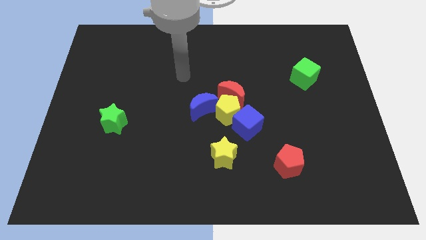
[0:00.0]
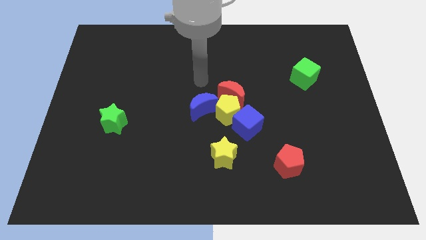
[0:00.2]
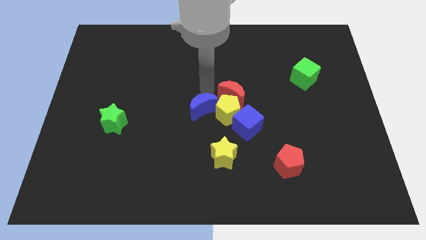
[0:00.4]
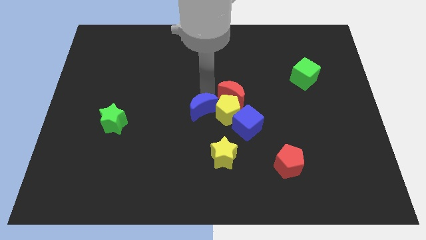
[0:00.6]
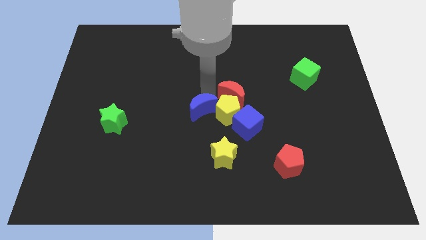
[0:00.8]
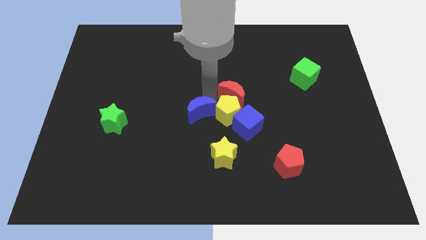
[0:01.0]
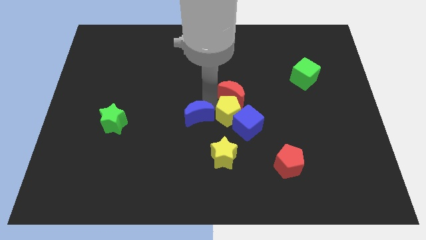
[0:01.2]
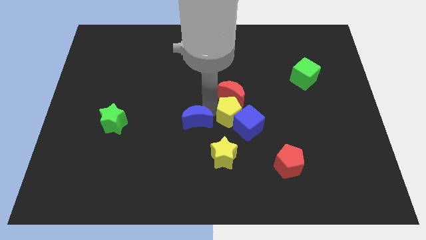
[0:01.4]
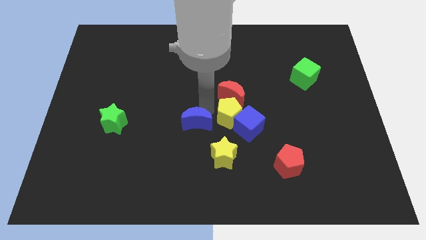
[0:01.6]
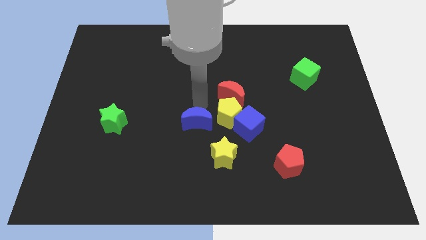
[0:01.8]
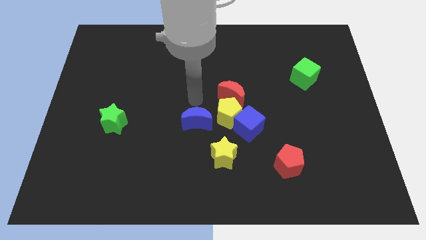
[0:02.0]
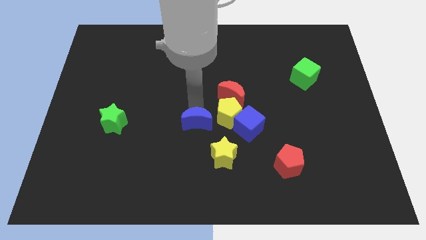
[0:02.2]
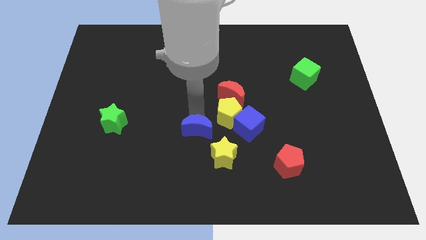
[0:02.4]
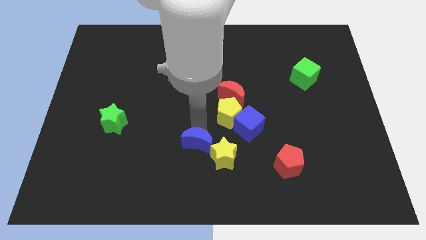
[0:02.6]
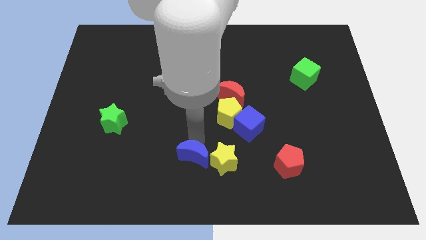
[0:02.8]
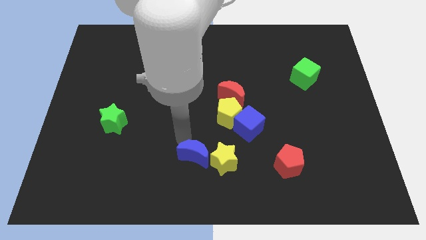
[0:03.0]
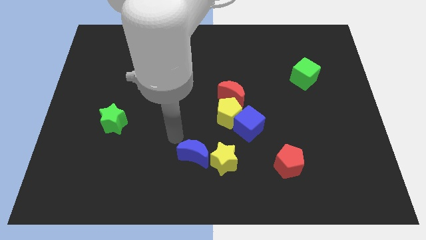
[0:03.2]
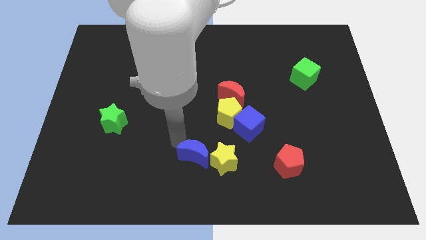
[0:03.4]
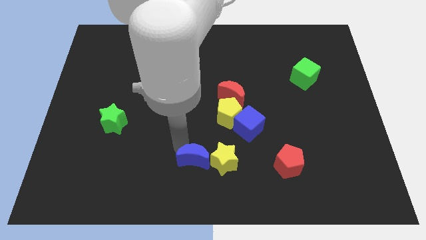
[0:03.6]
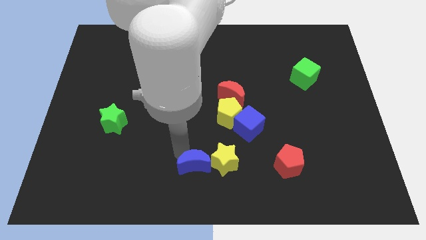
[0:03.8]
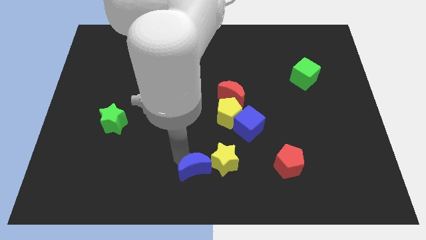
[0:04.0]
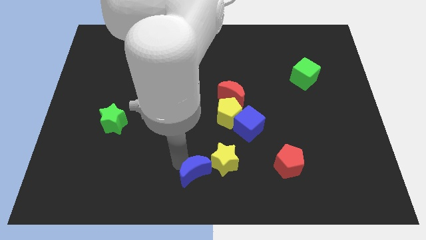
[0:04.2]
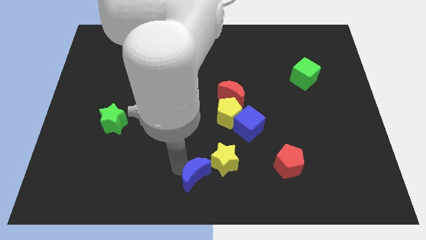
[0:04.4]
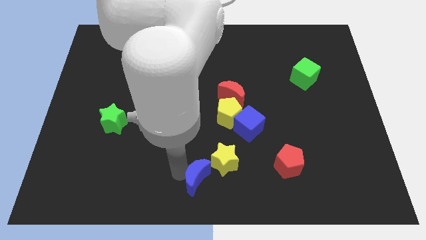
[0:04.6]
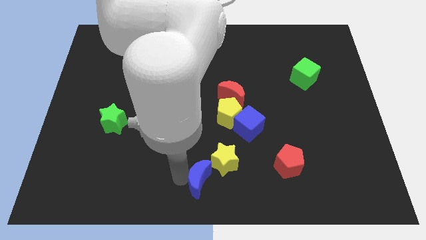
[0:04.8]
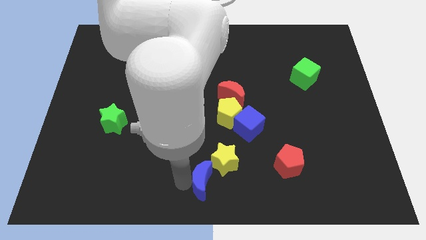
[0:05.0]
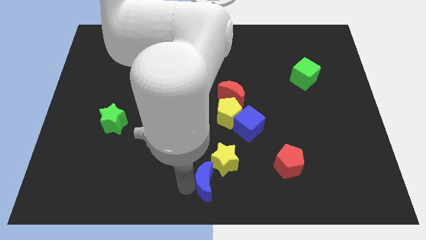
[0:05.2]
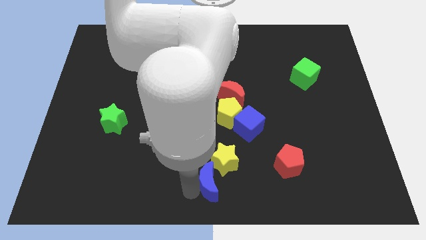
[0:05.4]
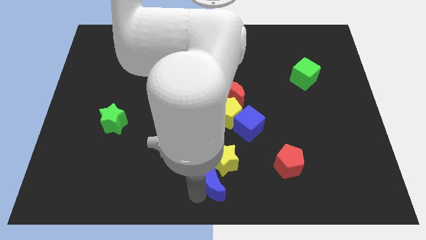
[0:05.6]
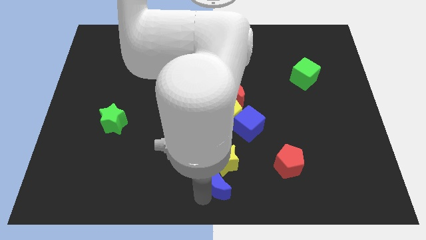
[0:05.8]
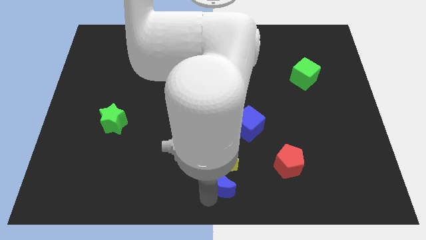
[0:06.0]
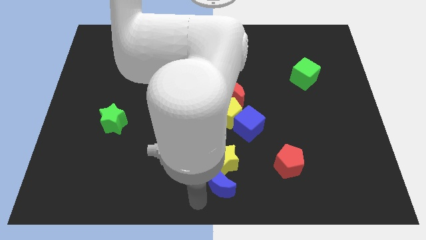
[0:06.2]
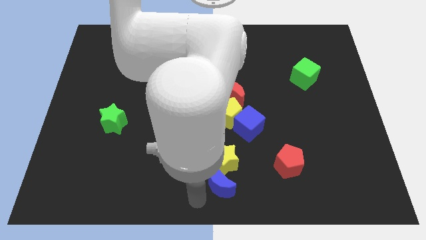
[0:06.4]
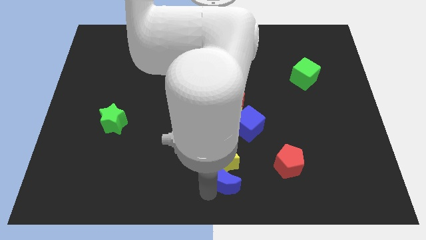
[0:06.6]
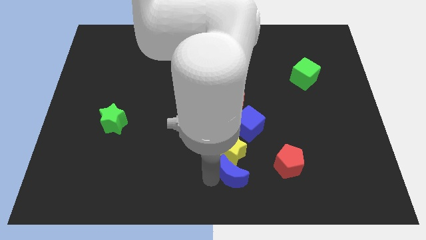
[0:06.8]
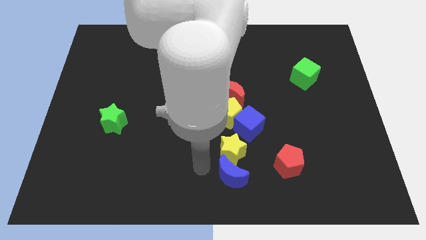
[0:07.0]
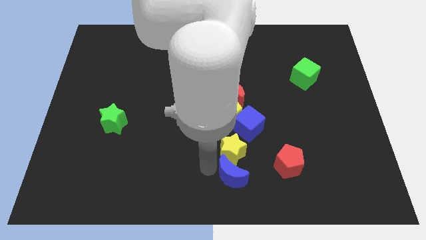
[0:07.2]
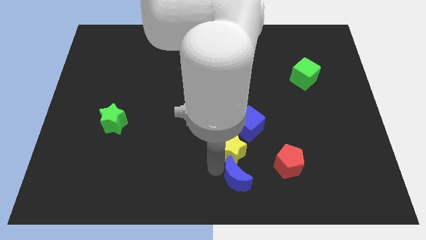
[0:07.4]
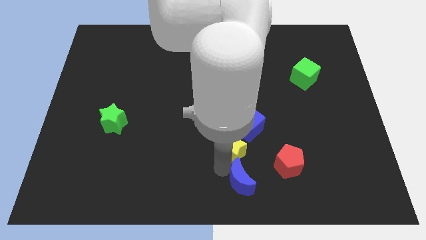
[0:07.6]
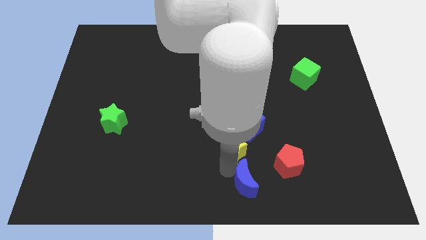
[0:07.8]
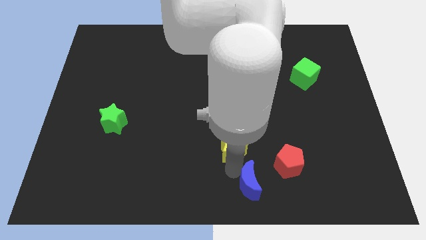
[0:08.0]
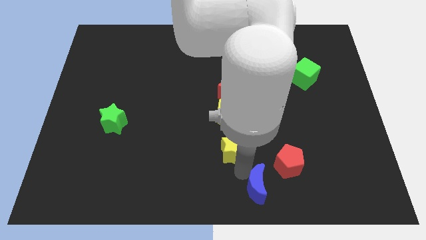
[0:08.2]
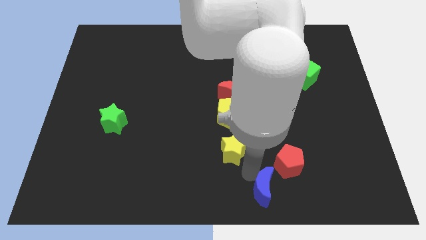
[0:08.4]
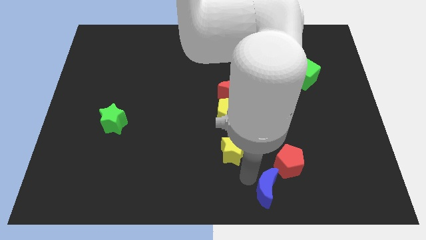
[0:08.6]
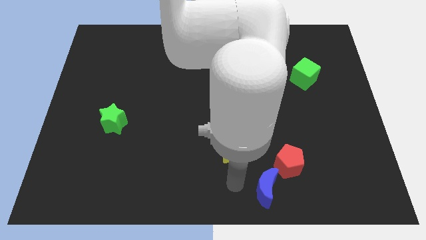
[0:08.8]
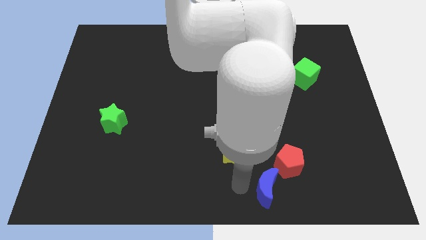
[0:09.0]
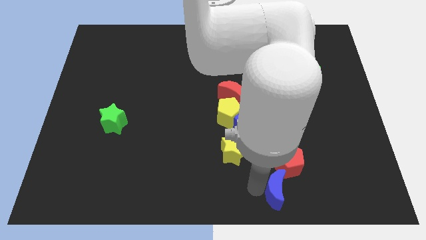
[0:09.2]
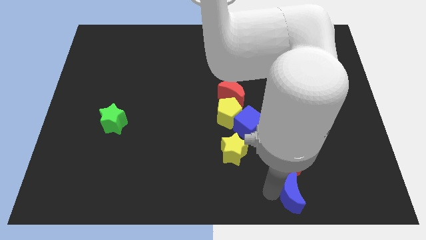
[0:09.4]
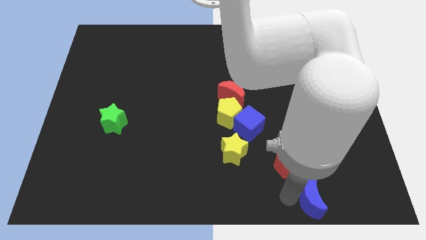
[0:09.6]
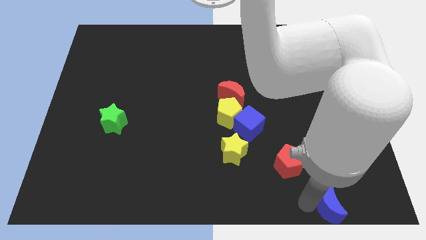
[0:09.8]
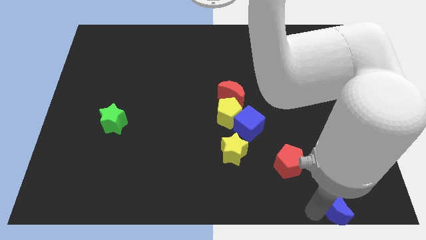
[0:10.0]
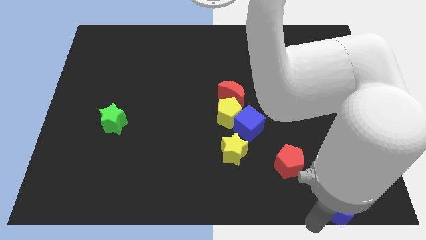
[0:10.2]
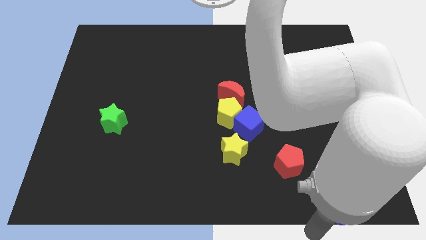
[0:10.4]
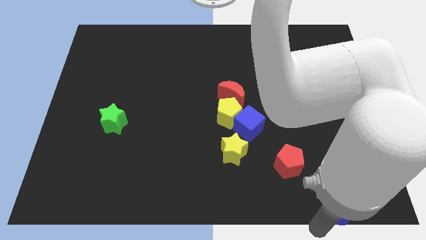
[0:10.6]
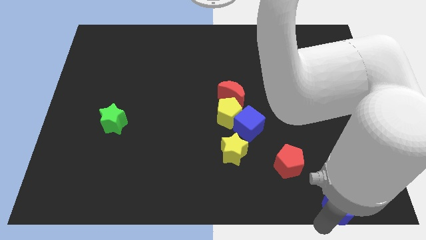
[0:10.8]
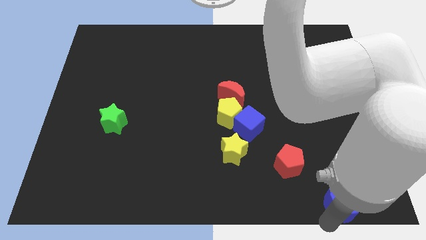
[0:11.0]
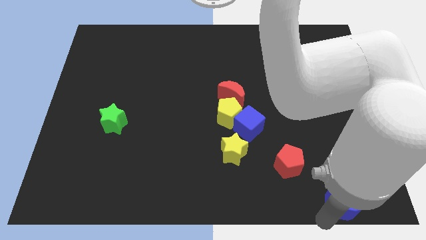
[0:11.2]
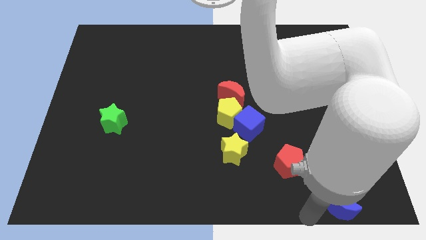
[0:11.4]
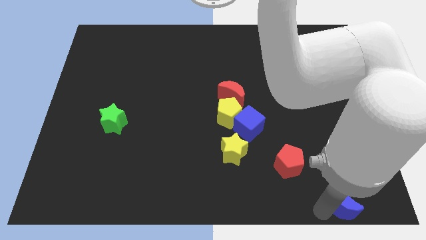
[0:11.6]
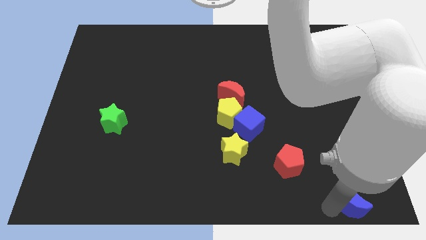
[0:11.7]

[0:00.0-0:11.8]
push the blue moon to the bottom right

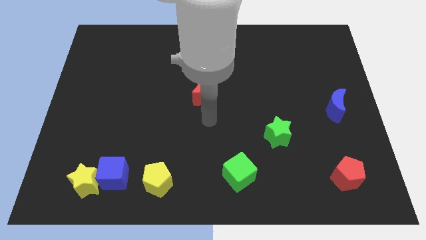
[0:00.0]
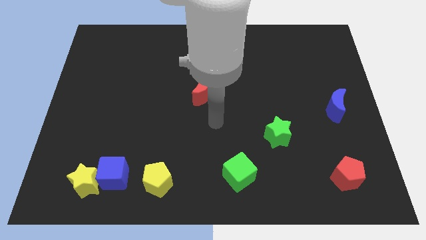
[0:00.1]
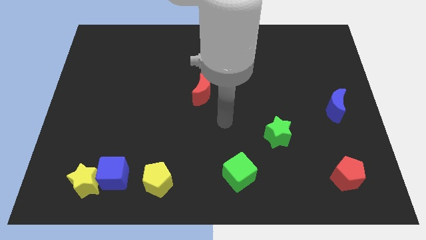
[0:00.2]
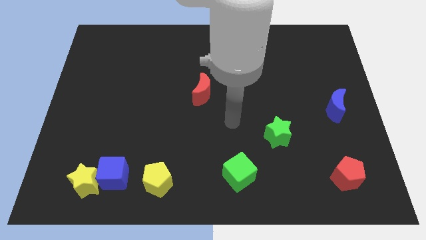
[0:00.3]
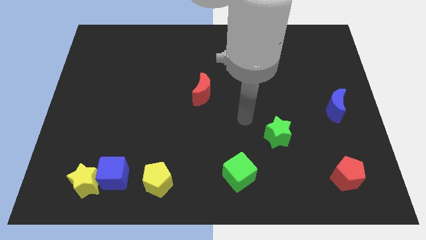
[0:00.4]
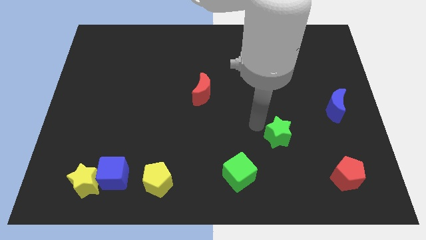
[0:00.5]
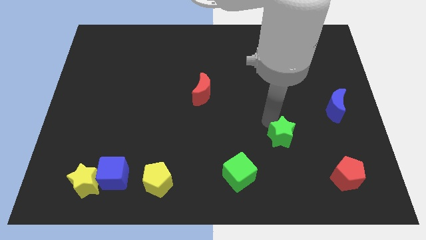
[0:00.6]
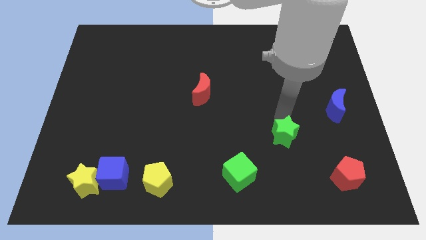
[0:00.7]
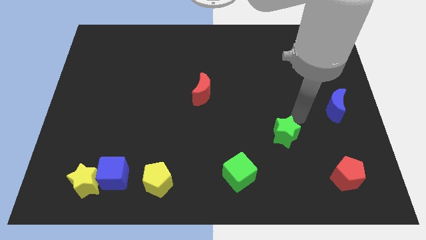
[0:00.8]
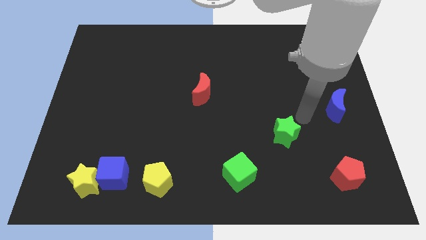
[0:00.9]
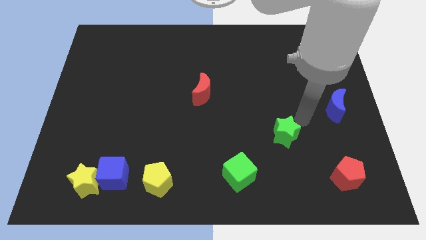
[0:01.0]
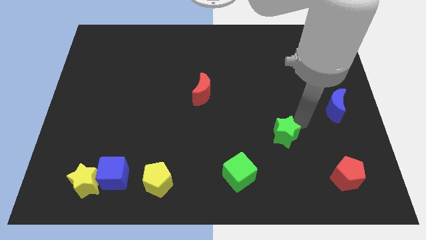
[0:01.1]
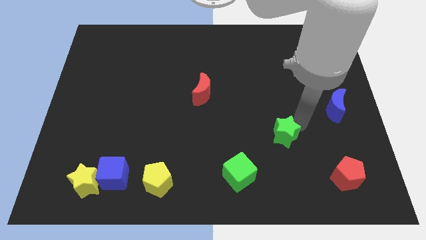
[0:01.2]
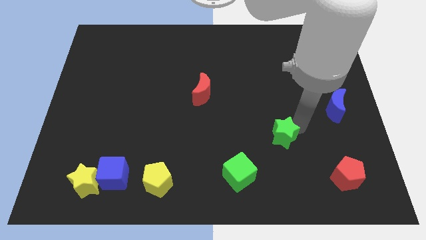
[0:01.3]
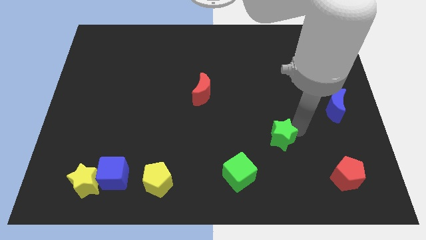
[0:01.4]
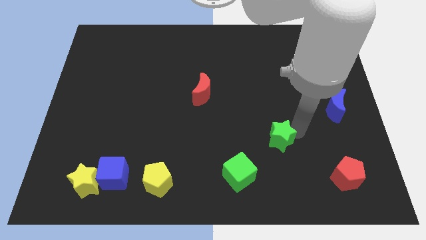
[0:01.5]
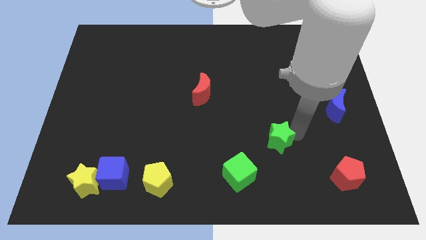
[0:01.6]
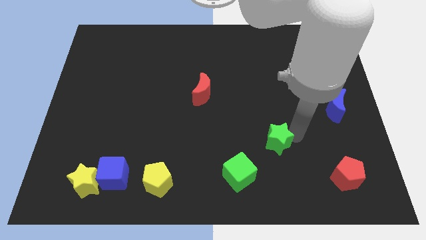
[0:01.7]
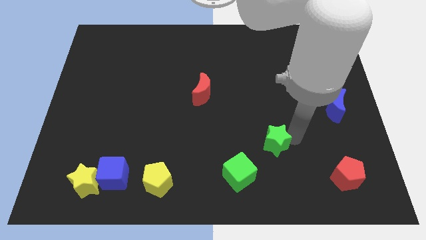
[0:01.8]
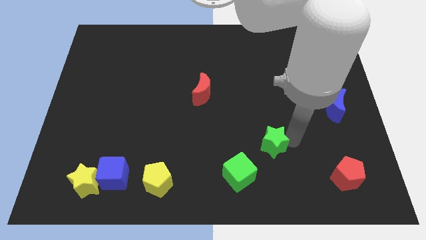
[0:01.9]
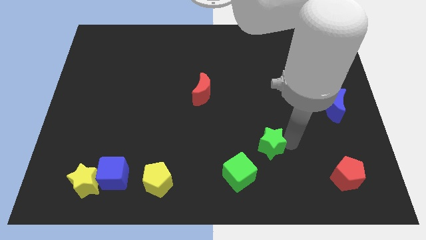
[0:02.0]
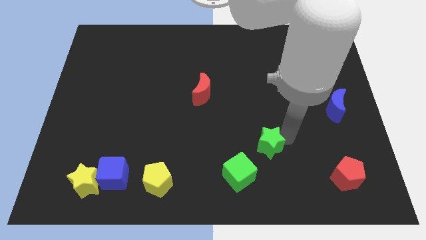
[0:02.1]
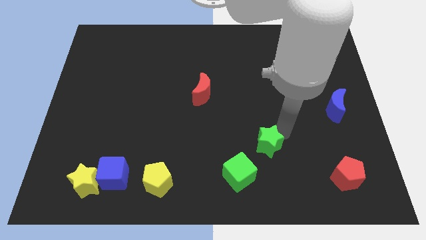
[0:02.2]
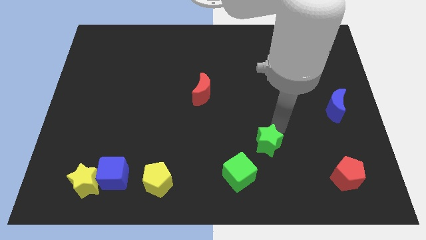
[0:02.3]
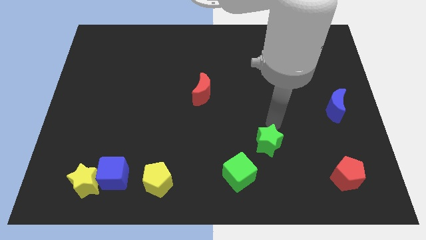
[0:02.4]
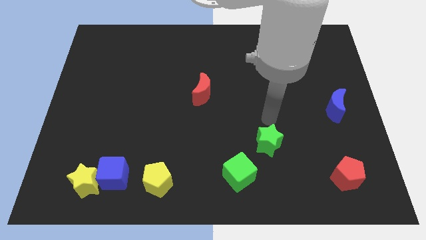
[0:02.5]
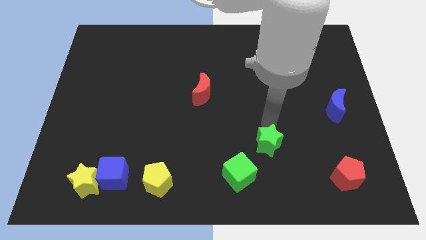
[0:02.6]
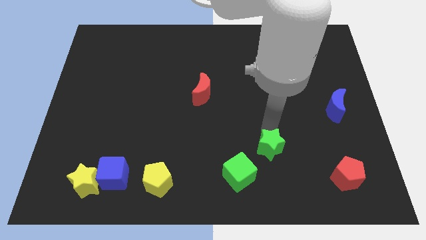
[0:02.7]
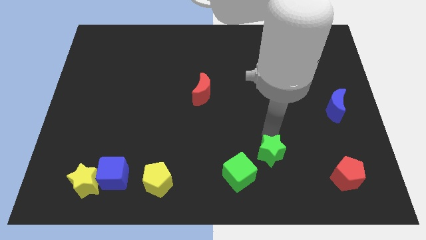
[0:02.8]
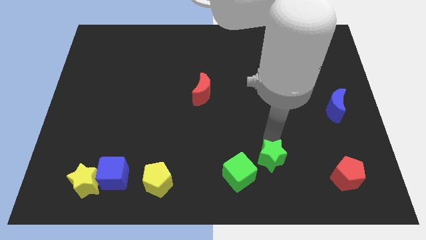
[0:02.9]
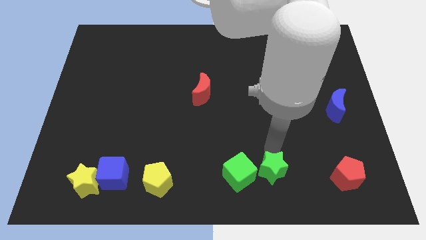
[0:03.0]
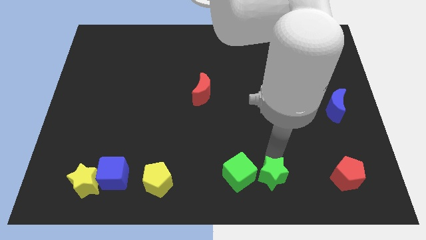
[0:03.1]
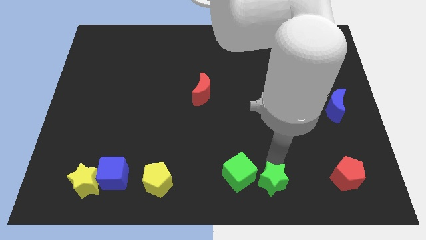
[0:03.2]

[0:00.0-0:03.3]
put the green star to the bottom
